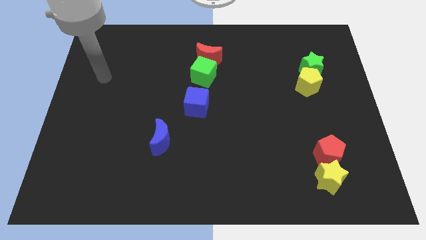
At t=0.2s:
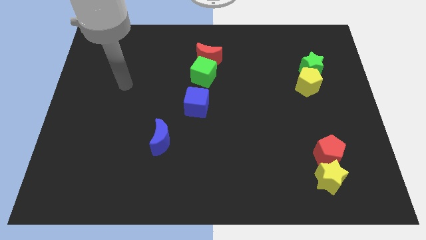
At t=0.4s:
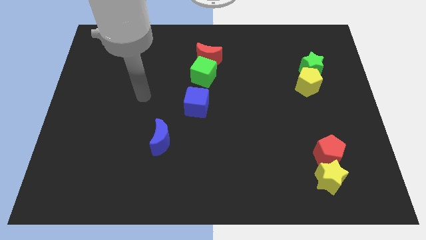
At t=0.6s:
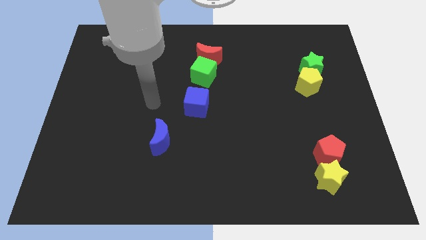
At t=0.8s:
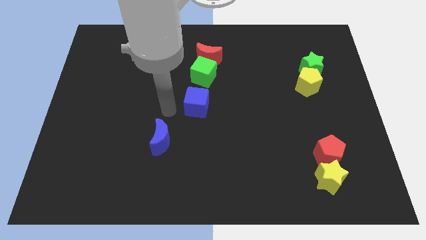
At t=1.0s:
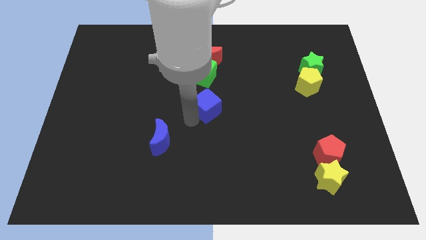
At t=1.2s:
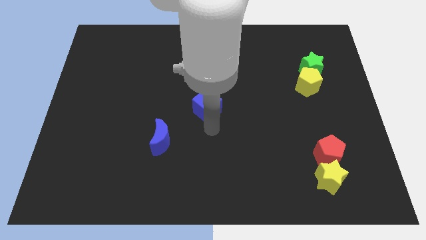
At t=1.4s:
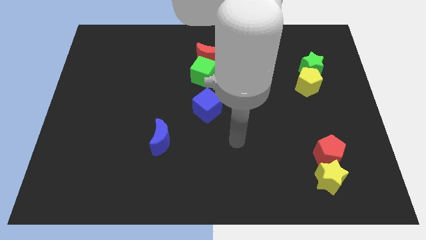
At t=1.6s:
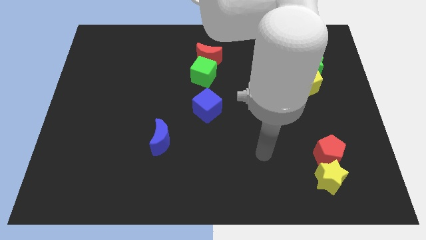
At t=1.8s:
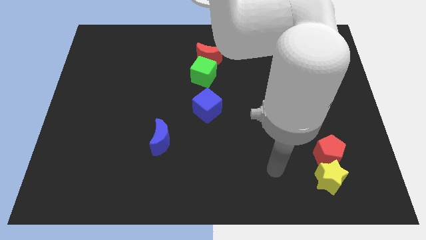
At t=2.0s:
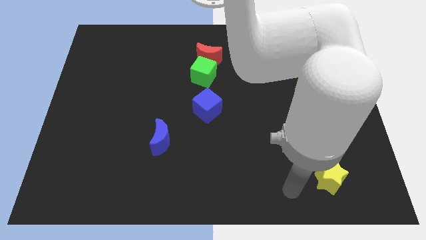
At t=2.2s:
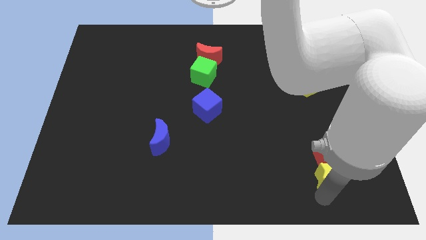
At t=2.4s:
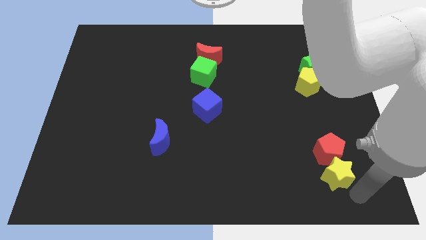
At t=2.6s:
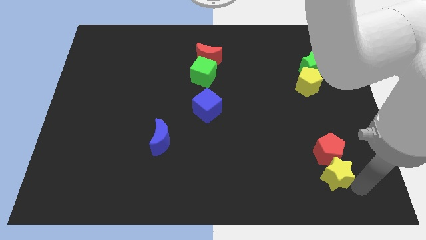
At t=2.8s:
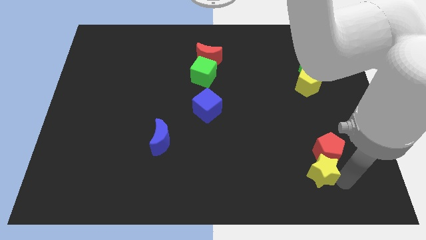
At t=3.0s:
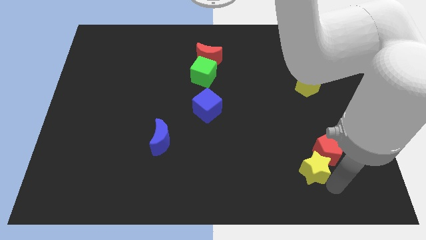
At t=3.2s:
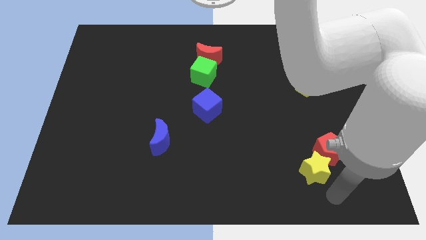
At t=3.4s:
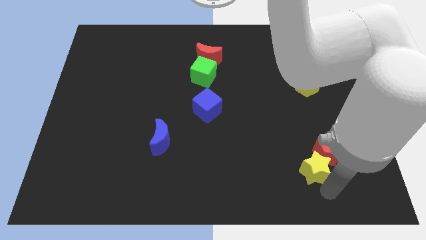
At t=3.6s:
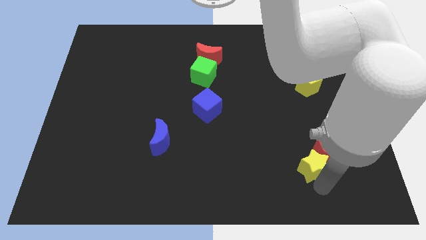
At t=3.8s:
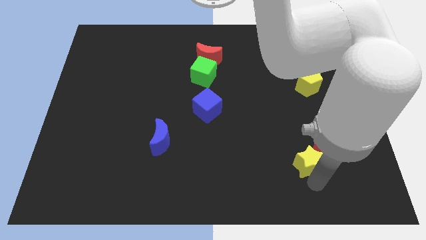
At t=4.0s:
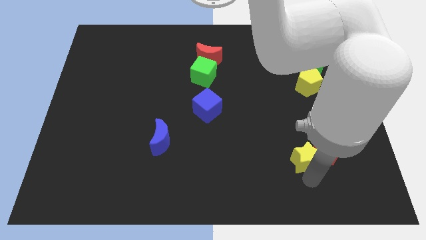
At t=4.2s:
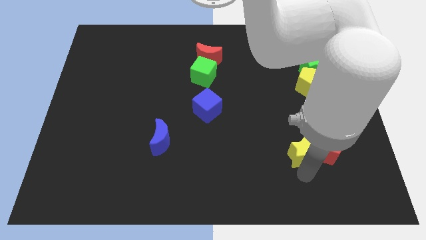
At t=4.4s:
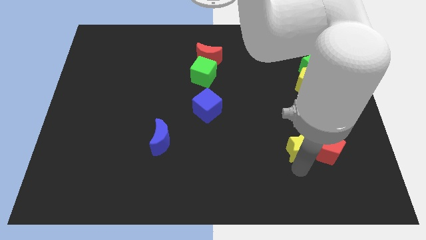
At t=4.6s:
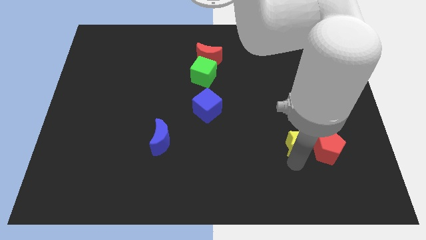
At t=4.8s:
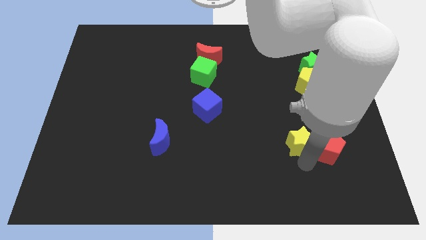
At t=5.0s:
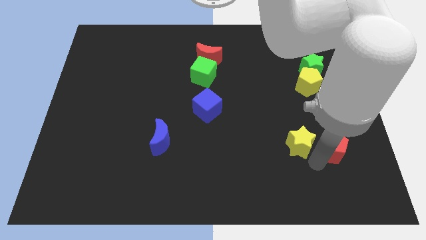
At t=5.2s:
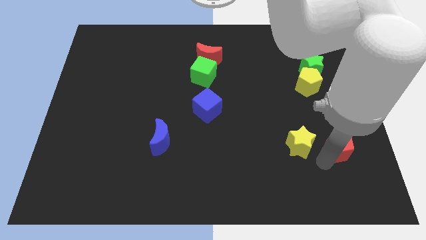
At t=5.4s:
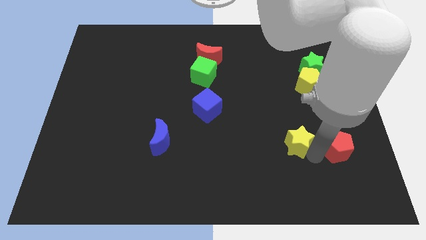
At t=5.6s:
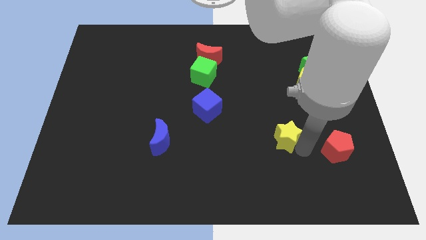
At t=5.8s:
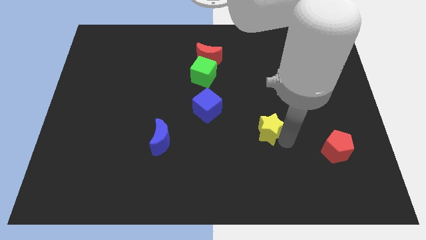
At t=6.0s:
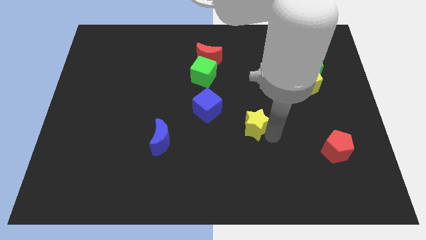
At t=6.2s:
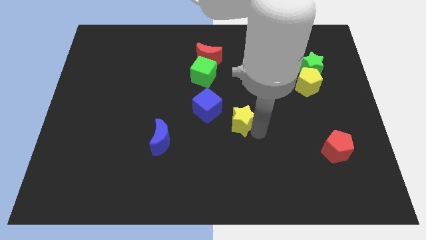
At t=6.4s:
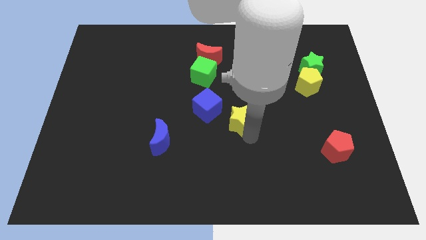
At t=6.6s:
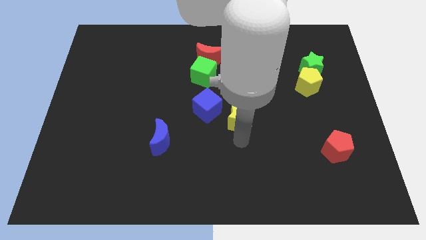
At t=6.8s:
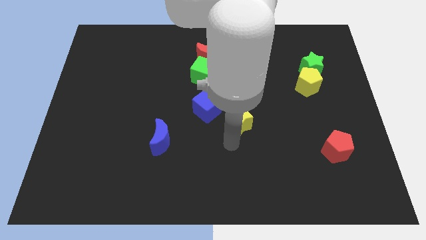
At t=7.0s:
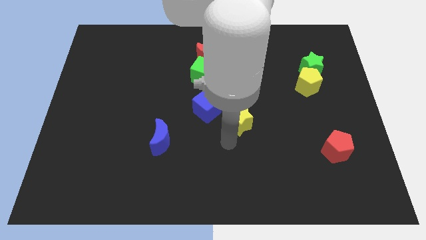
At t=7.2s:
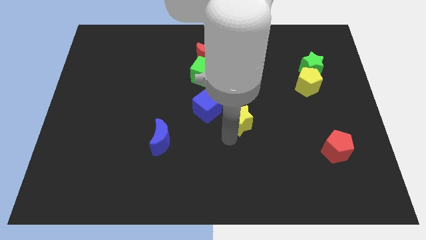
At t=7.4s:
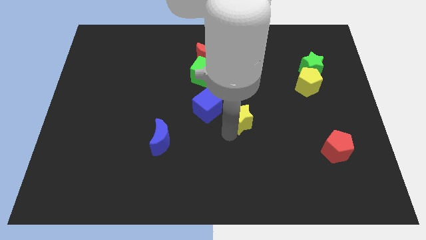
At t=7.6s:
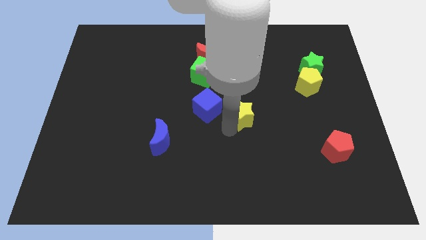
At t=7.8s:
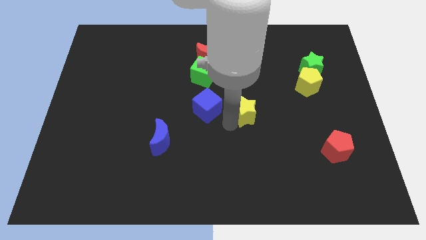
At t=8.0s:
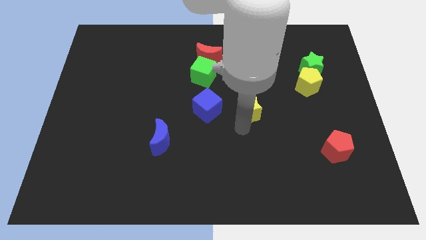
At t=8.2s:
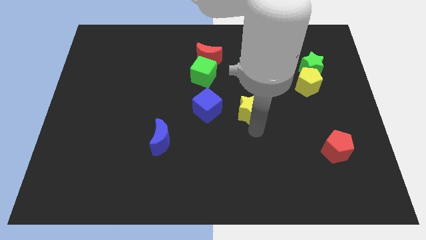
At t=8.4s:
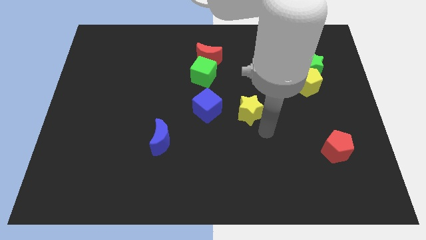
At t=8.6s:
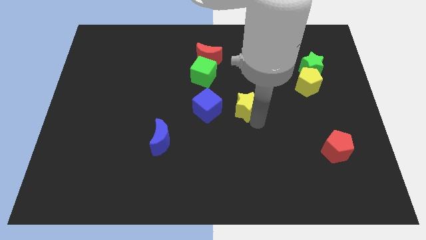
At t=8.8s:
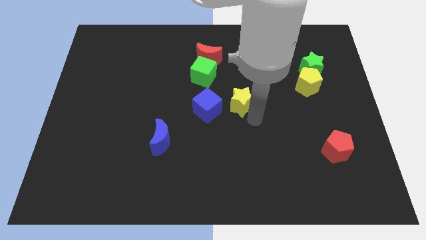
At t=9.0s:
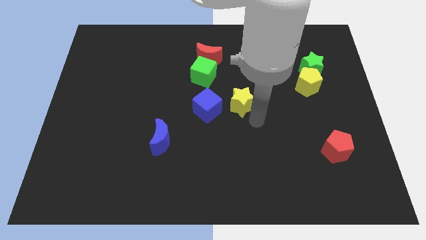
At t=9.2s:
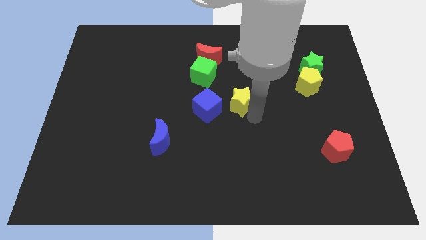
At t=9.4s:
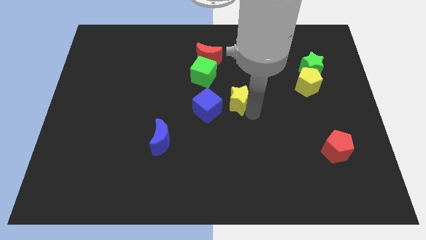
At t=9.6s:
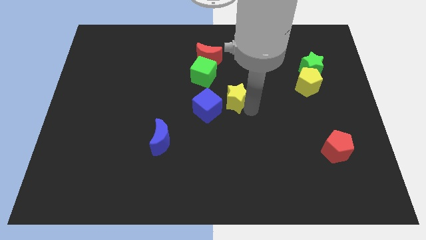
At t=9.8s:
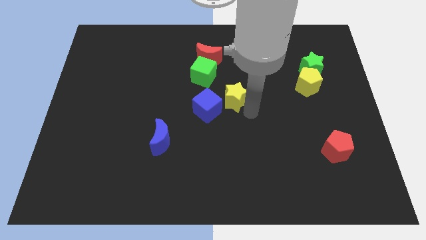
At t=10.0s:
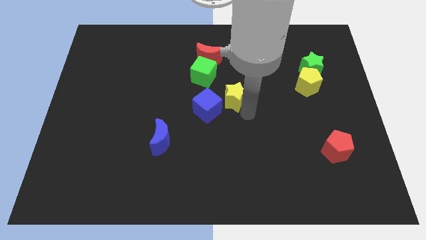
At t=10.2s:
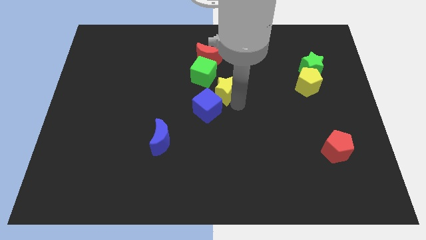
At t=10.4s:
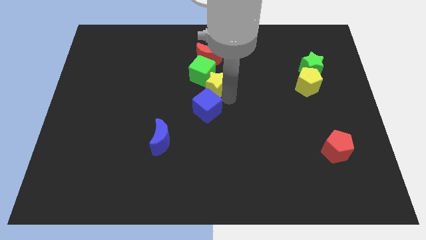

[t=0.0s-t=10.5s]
put the yellow star close to the green cube

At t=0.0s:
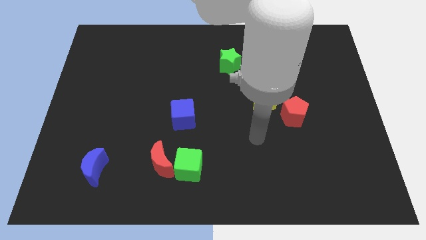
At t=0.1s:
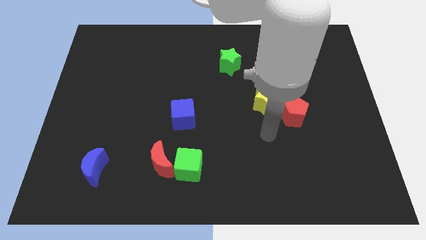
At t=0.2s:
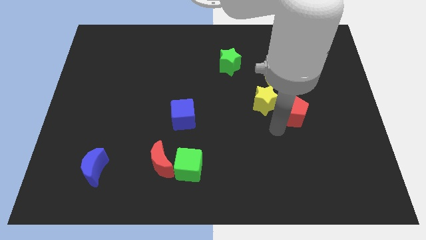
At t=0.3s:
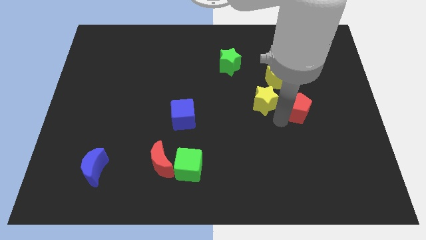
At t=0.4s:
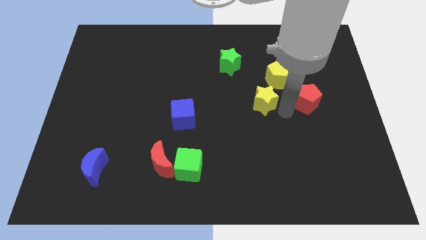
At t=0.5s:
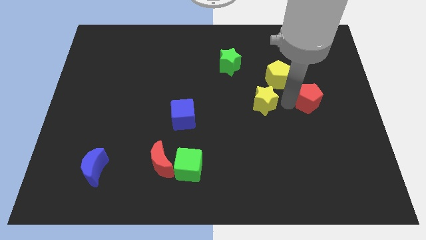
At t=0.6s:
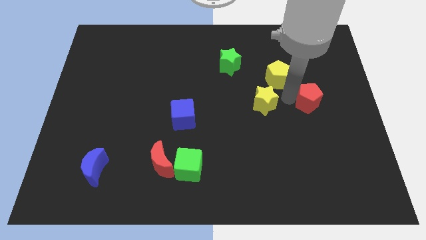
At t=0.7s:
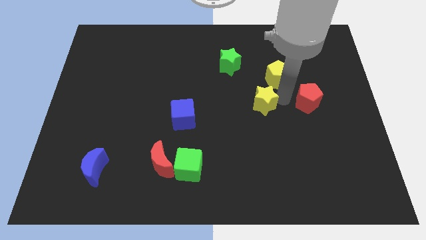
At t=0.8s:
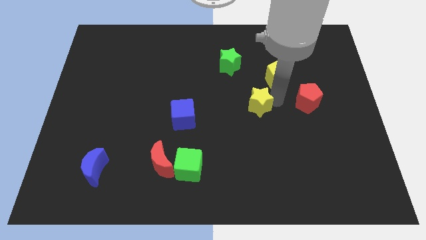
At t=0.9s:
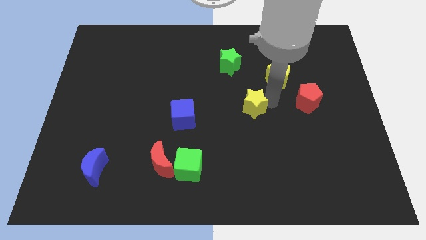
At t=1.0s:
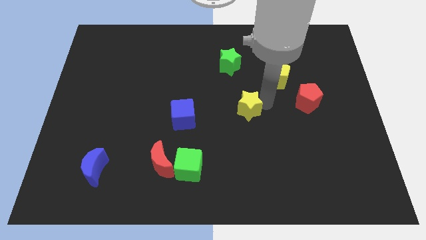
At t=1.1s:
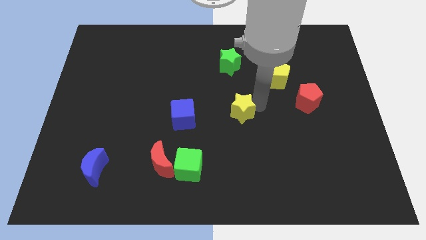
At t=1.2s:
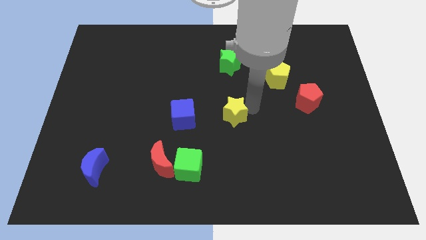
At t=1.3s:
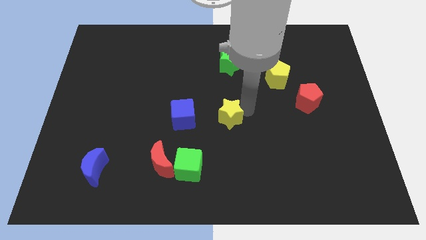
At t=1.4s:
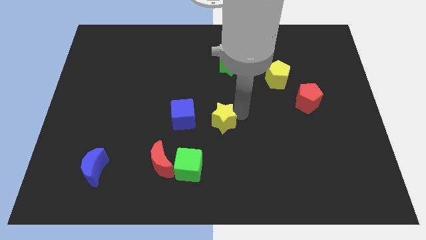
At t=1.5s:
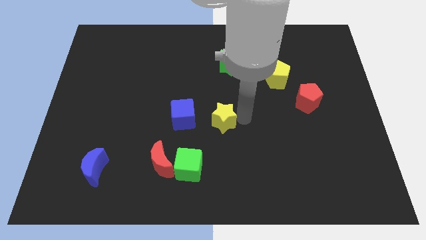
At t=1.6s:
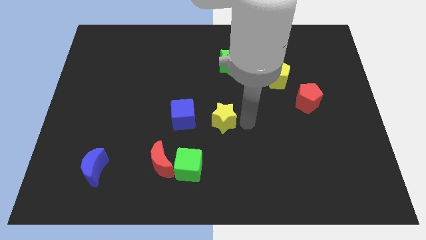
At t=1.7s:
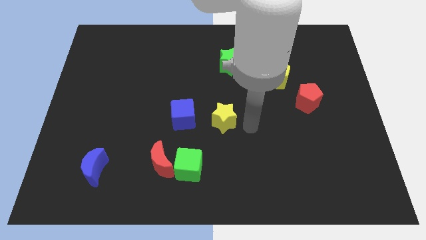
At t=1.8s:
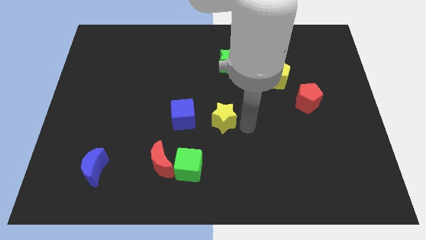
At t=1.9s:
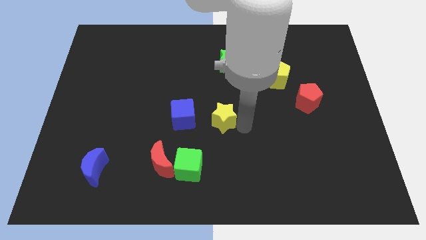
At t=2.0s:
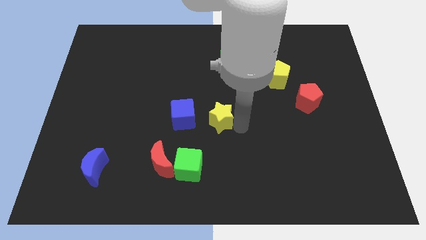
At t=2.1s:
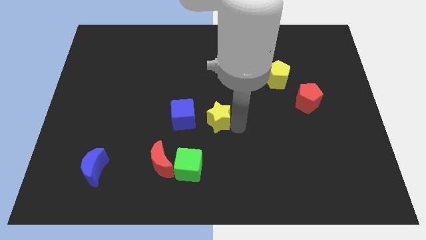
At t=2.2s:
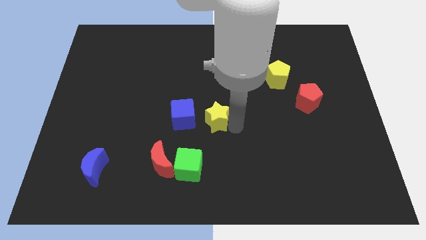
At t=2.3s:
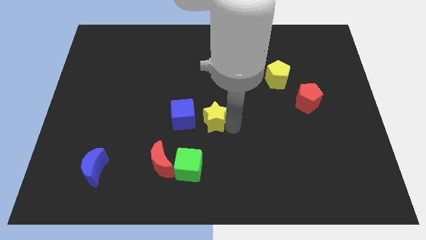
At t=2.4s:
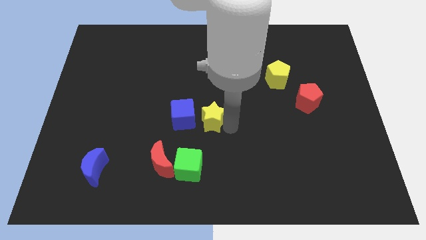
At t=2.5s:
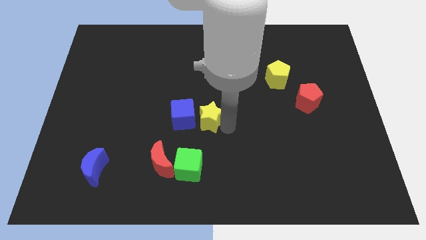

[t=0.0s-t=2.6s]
put the yellow star next to the blue cube
